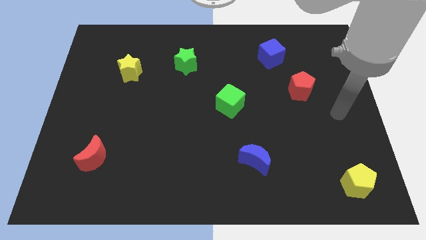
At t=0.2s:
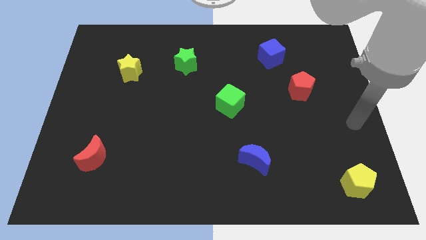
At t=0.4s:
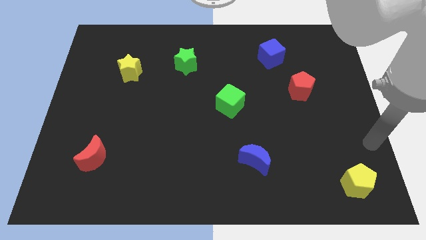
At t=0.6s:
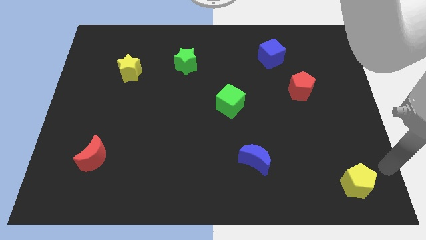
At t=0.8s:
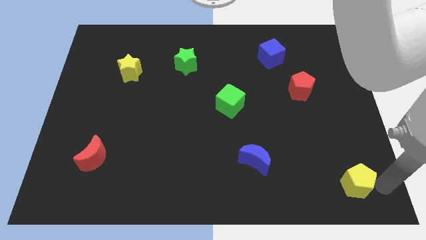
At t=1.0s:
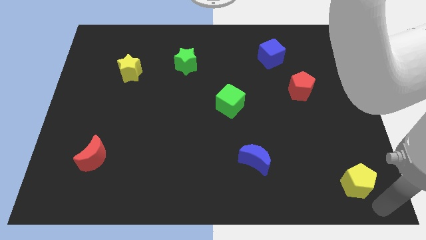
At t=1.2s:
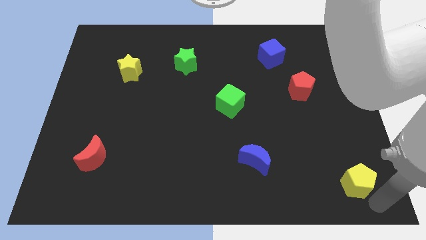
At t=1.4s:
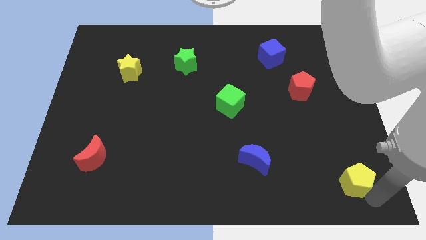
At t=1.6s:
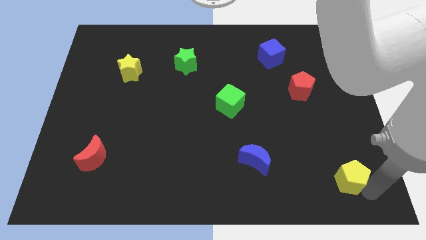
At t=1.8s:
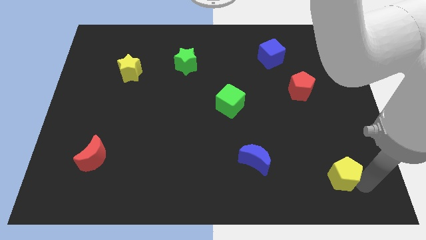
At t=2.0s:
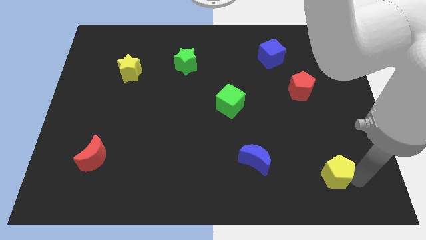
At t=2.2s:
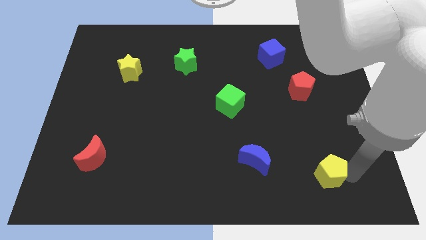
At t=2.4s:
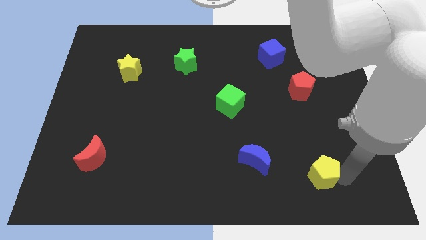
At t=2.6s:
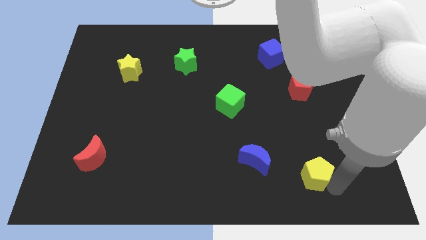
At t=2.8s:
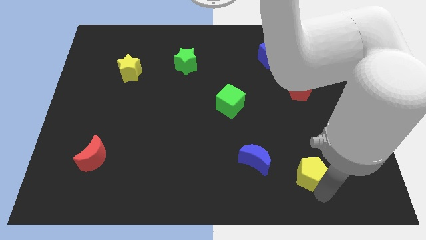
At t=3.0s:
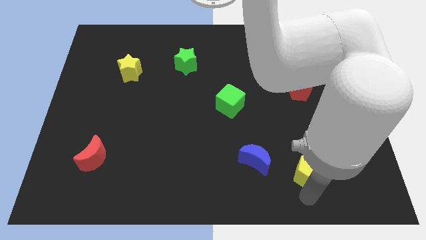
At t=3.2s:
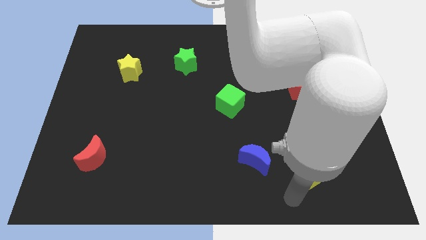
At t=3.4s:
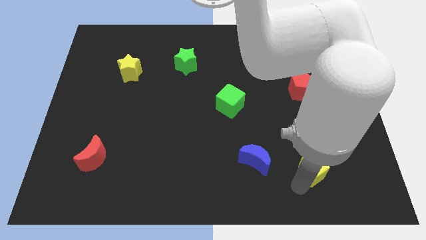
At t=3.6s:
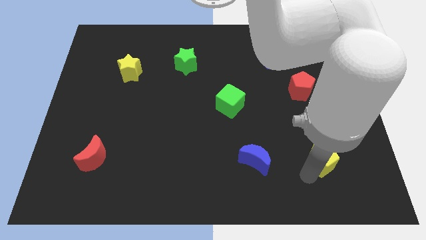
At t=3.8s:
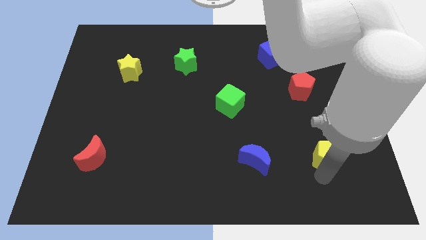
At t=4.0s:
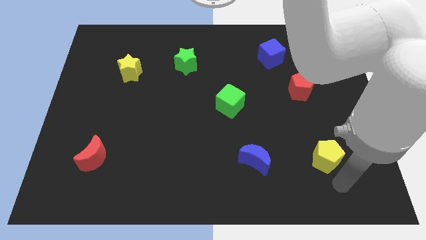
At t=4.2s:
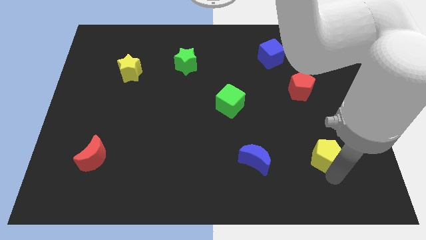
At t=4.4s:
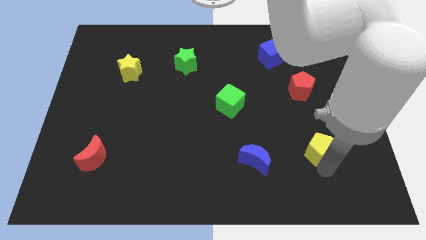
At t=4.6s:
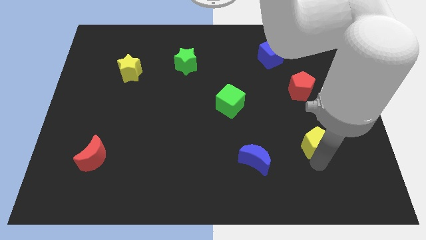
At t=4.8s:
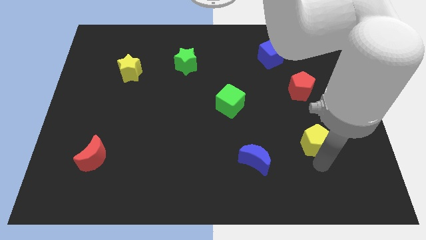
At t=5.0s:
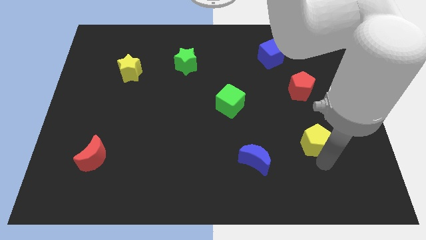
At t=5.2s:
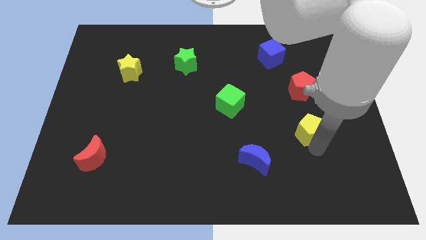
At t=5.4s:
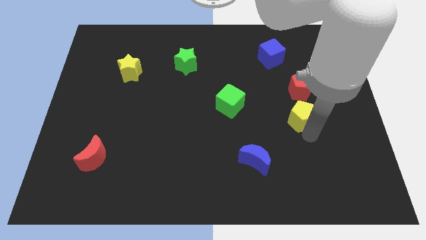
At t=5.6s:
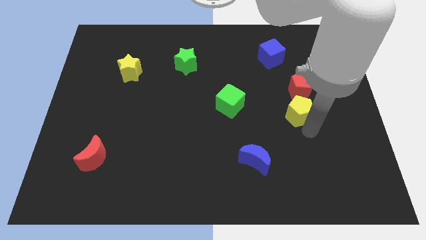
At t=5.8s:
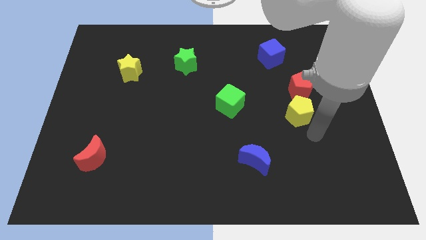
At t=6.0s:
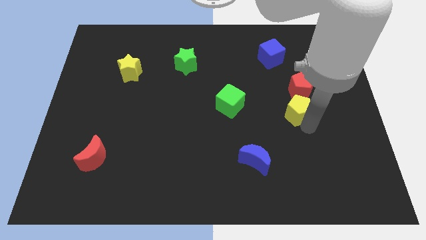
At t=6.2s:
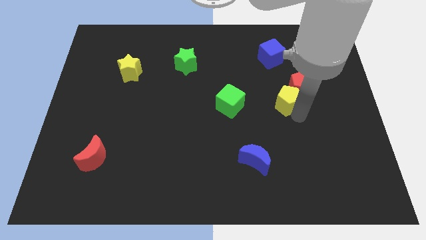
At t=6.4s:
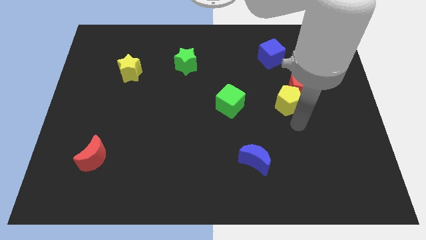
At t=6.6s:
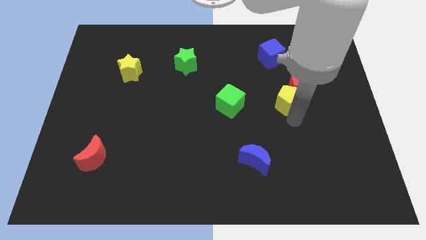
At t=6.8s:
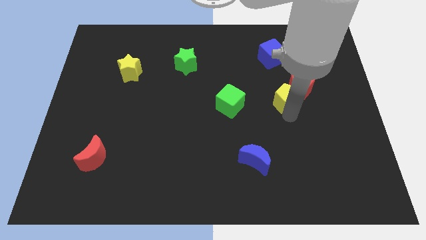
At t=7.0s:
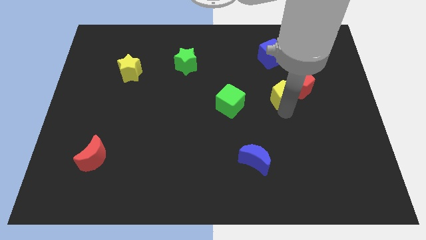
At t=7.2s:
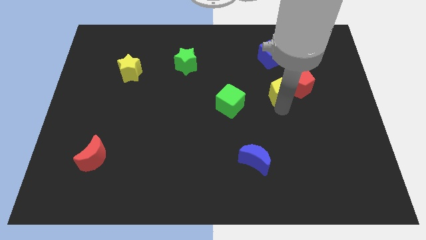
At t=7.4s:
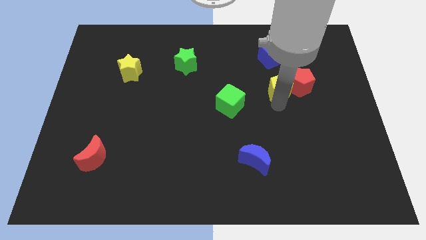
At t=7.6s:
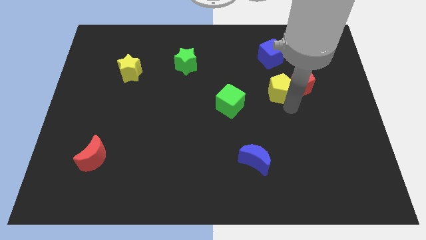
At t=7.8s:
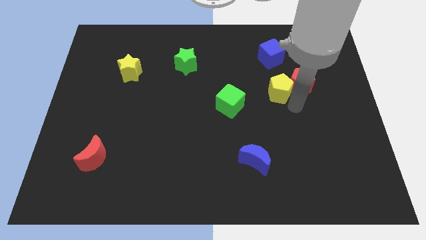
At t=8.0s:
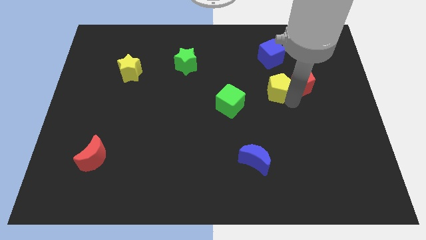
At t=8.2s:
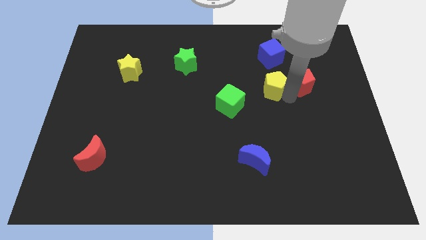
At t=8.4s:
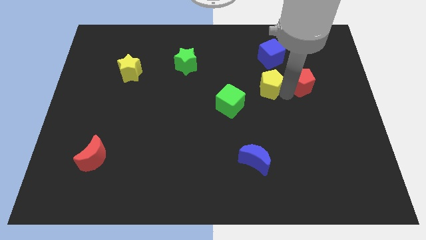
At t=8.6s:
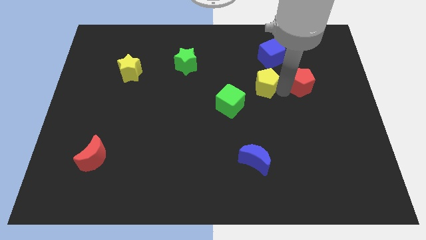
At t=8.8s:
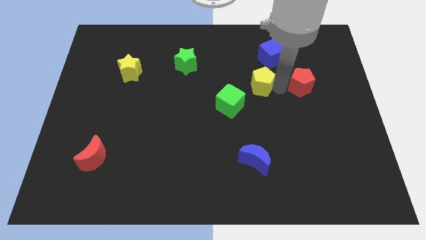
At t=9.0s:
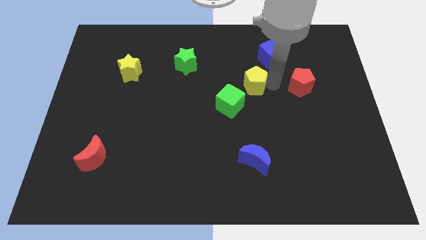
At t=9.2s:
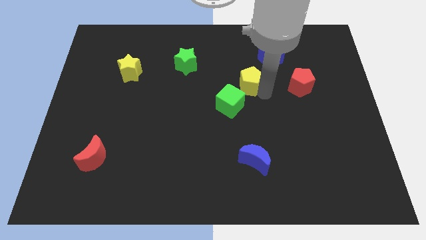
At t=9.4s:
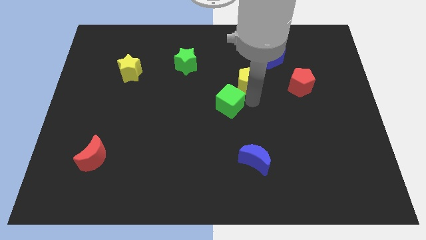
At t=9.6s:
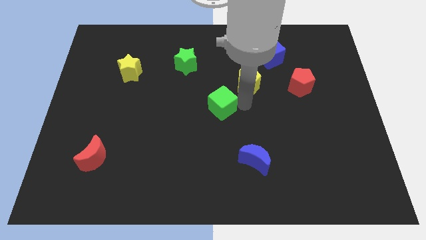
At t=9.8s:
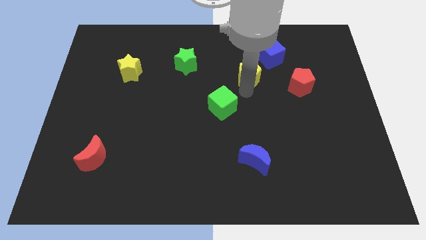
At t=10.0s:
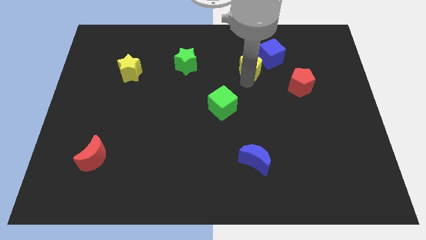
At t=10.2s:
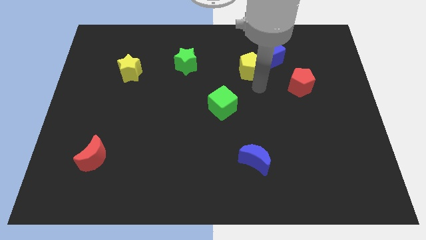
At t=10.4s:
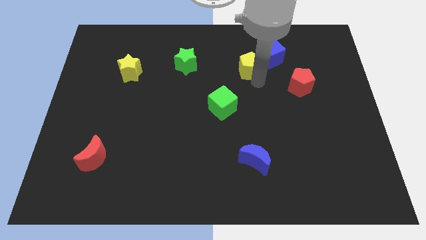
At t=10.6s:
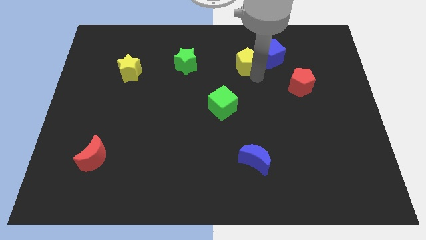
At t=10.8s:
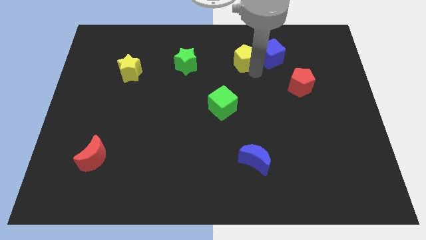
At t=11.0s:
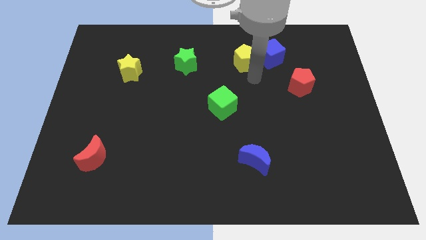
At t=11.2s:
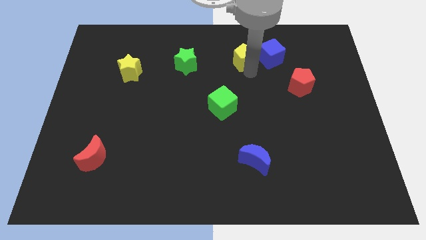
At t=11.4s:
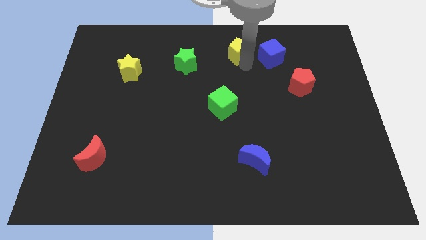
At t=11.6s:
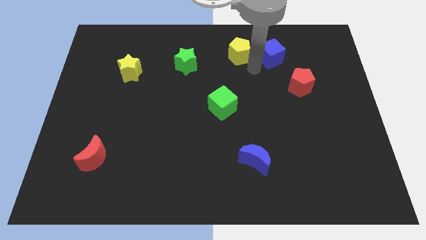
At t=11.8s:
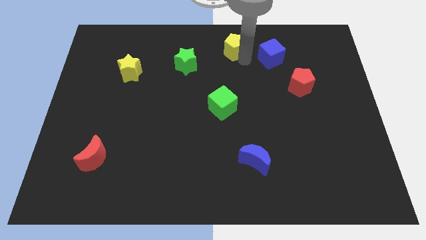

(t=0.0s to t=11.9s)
put the yellow pentagon to the top side

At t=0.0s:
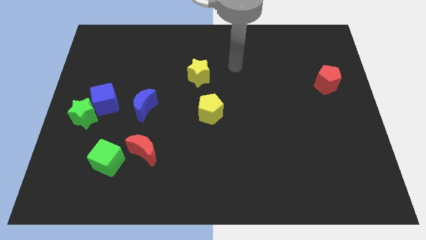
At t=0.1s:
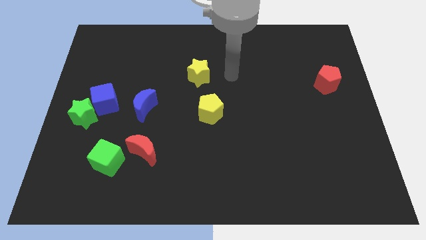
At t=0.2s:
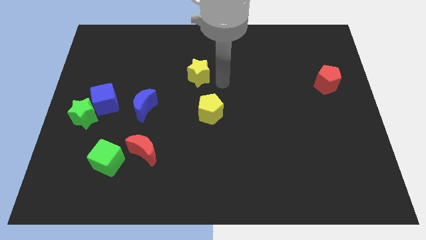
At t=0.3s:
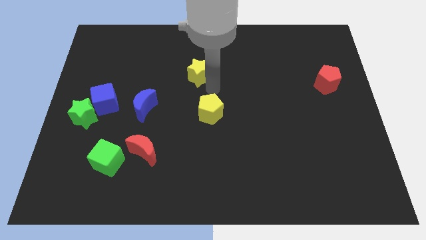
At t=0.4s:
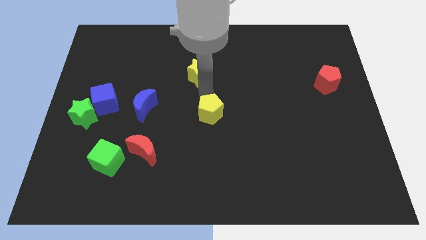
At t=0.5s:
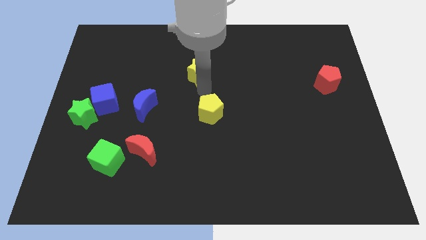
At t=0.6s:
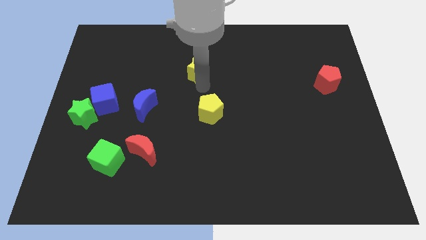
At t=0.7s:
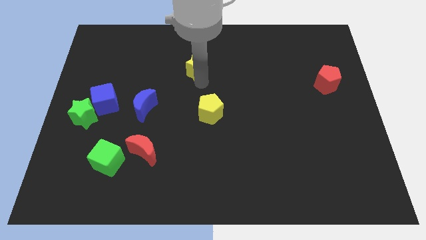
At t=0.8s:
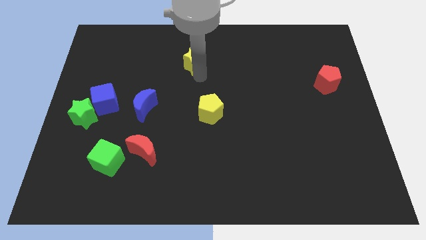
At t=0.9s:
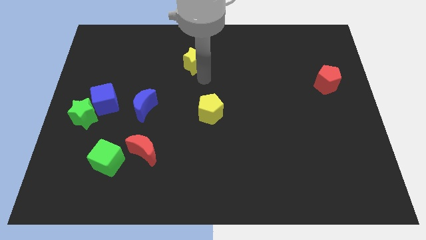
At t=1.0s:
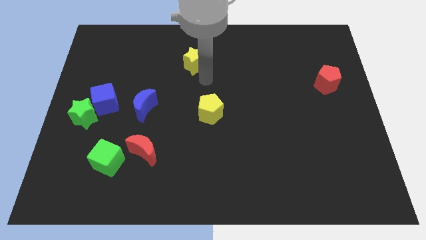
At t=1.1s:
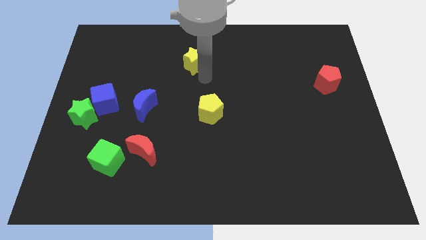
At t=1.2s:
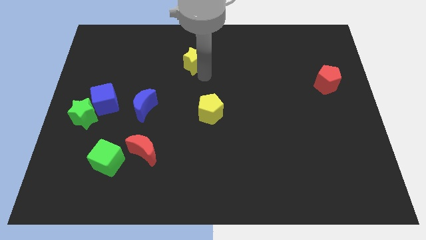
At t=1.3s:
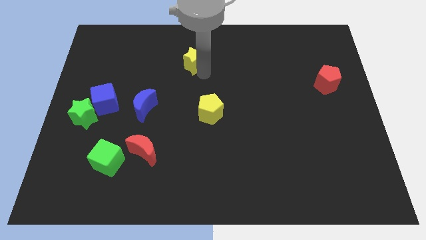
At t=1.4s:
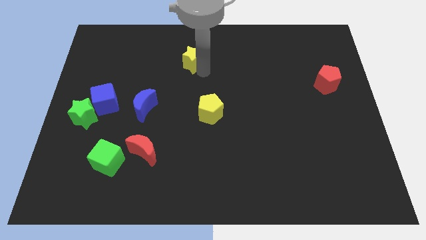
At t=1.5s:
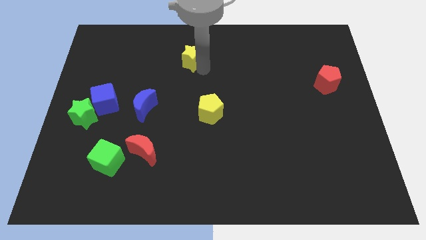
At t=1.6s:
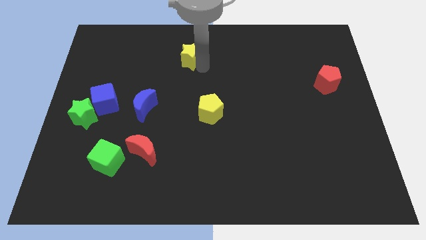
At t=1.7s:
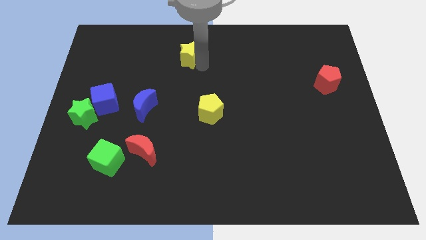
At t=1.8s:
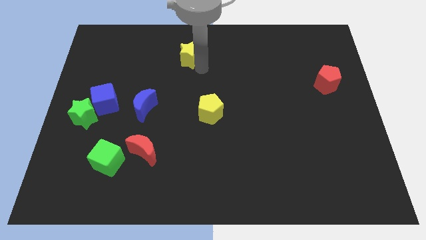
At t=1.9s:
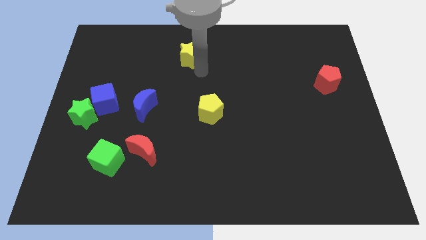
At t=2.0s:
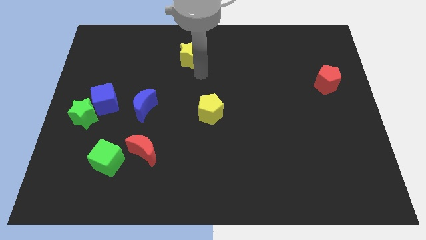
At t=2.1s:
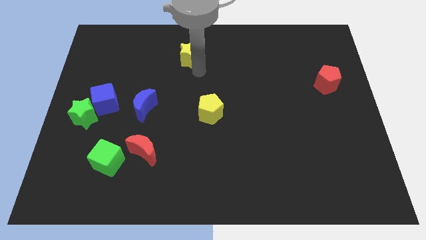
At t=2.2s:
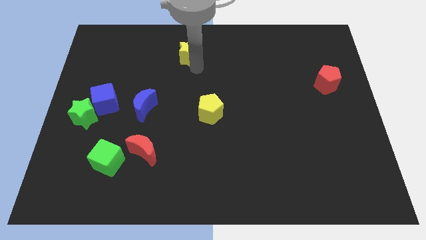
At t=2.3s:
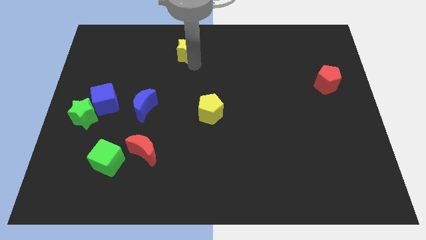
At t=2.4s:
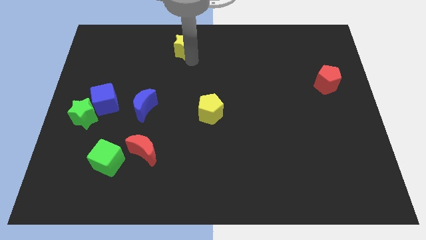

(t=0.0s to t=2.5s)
push the yellow star to the towards your base
